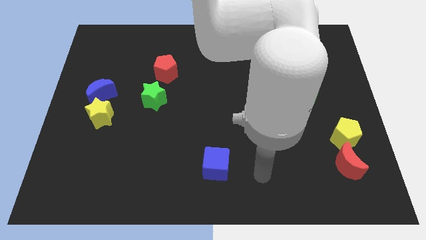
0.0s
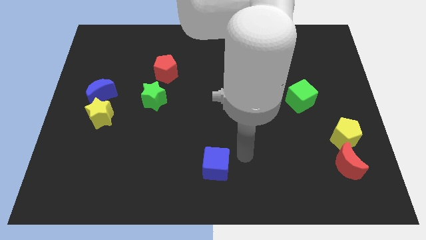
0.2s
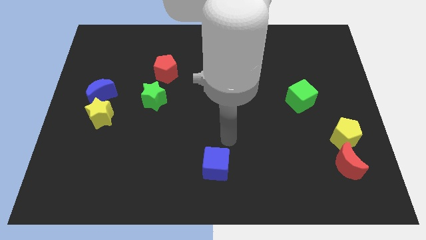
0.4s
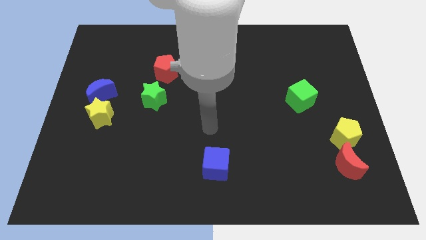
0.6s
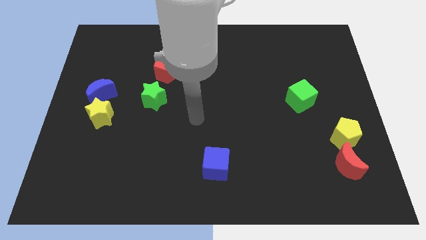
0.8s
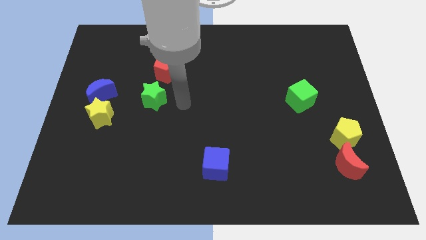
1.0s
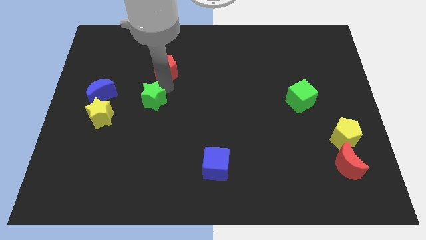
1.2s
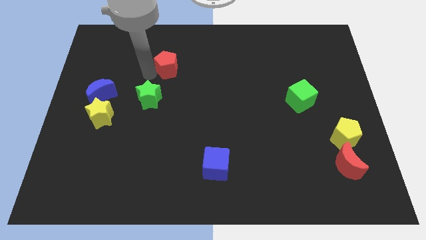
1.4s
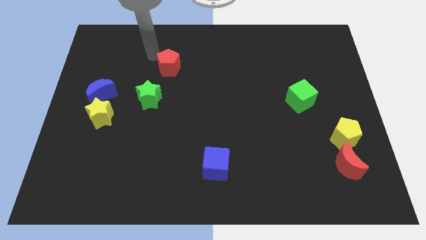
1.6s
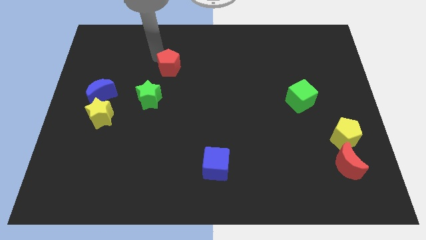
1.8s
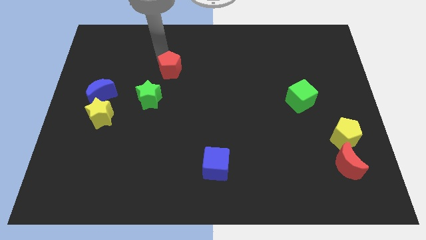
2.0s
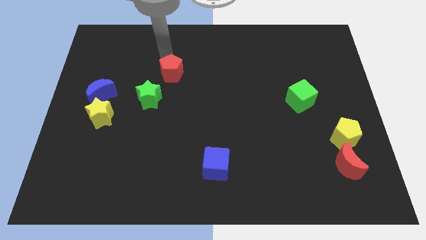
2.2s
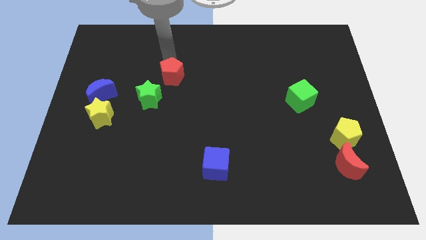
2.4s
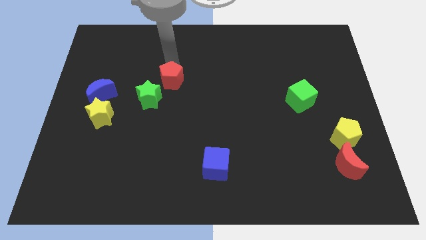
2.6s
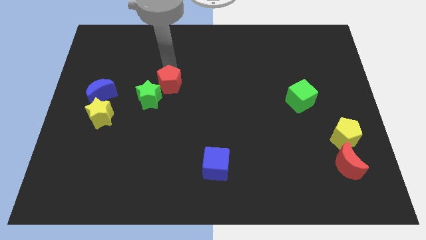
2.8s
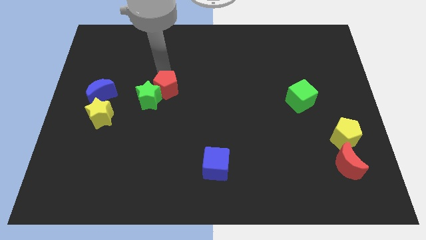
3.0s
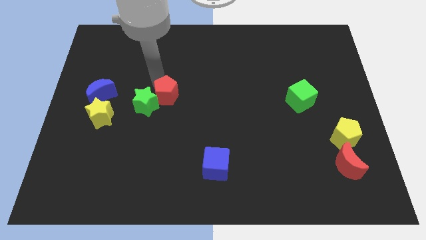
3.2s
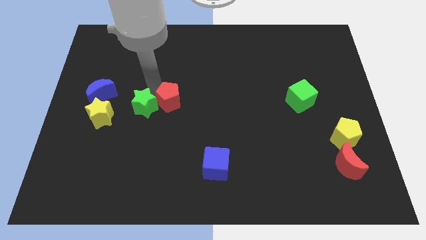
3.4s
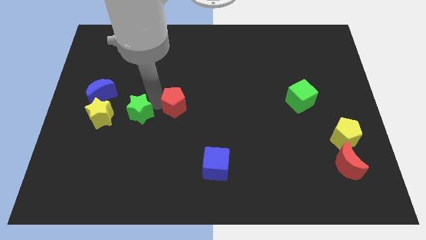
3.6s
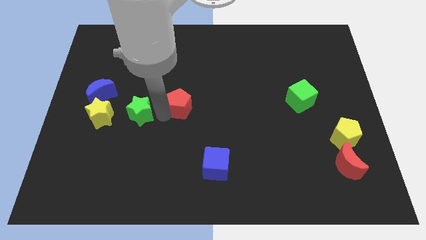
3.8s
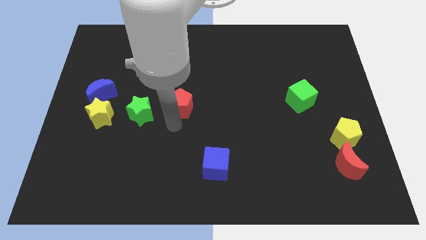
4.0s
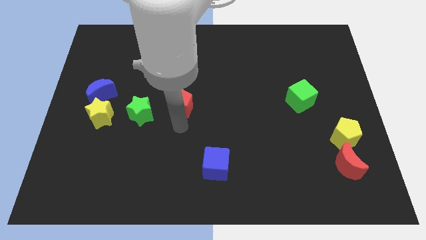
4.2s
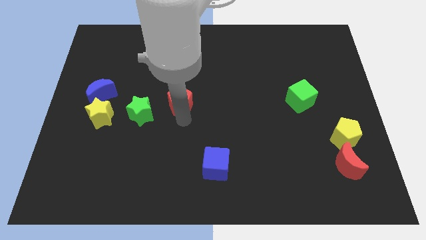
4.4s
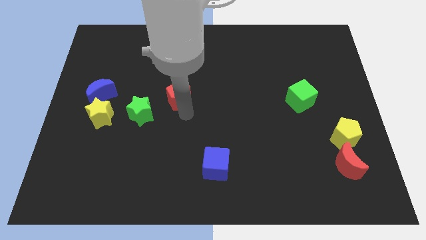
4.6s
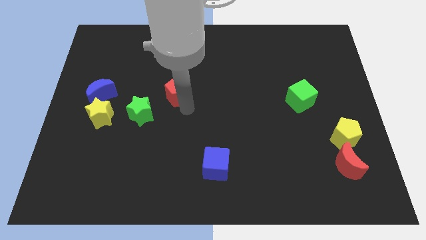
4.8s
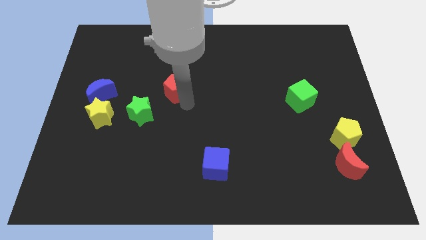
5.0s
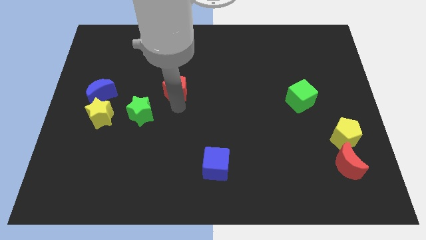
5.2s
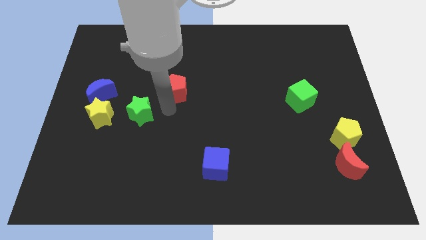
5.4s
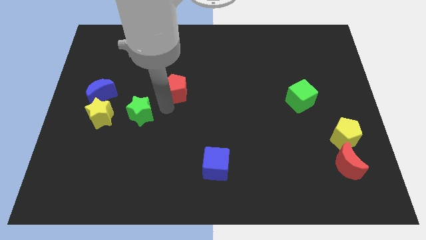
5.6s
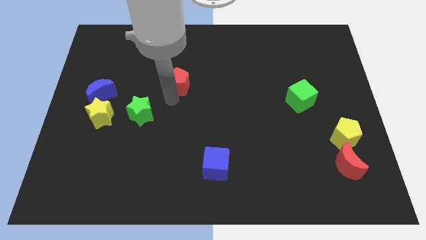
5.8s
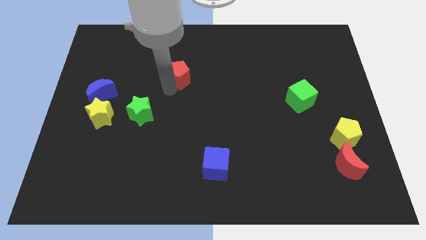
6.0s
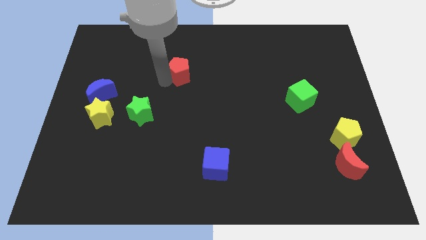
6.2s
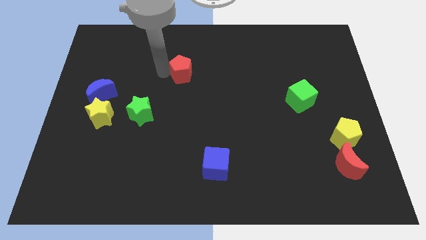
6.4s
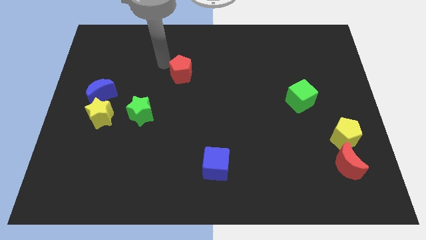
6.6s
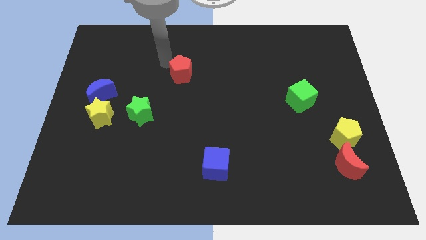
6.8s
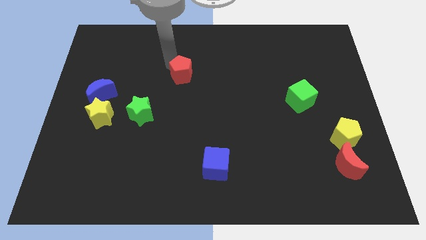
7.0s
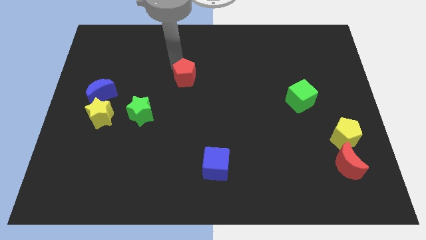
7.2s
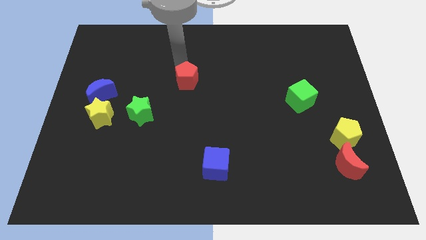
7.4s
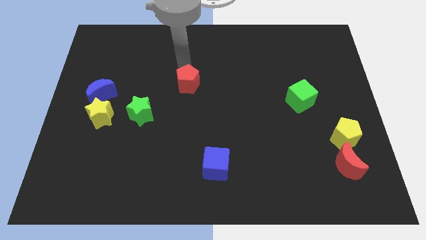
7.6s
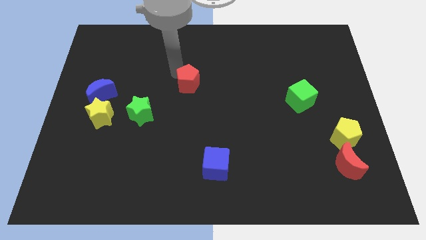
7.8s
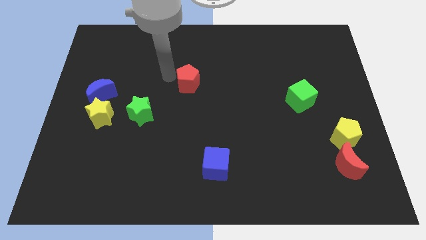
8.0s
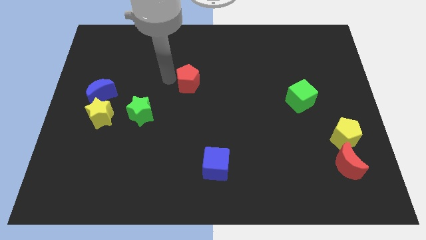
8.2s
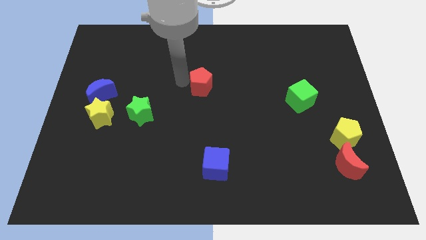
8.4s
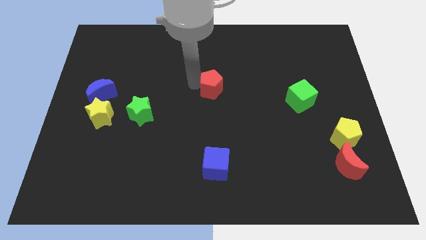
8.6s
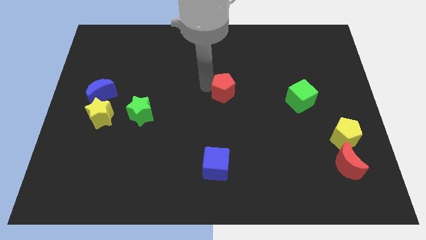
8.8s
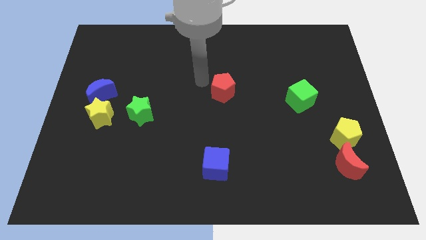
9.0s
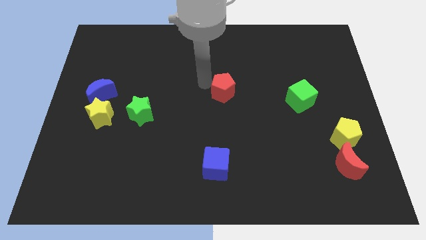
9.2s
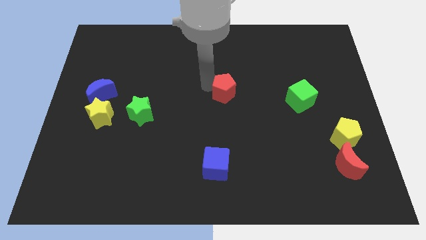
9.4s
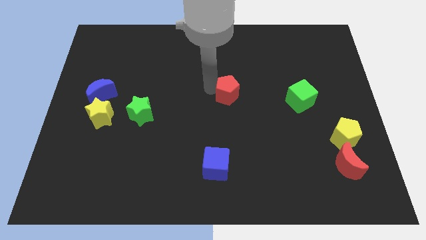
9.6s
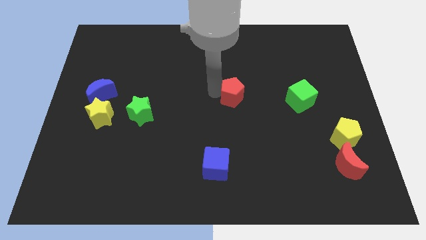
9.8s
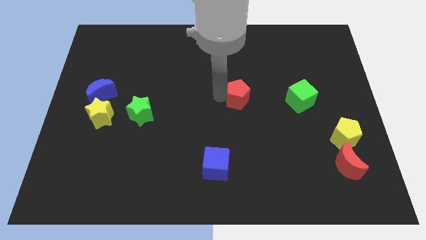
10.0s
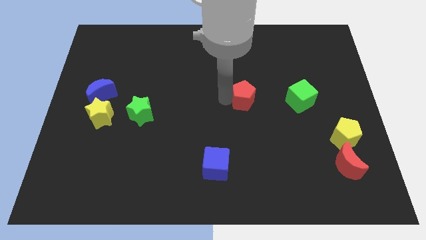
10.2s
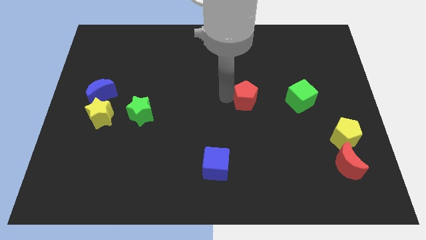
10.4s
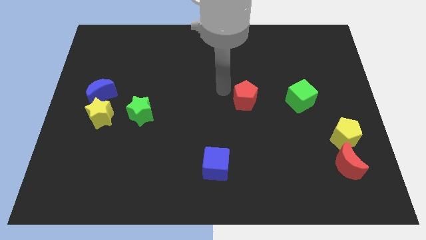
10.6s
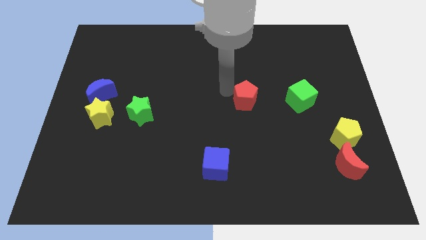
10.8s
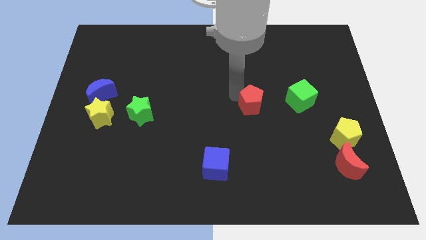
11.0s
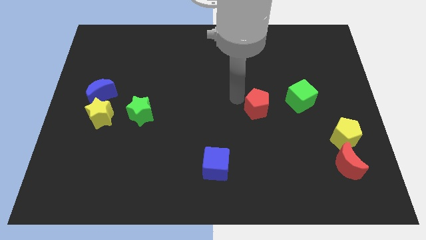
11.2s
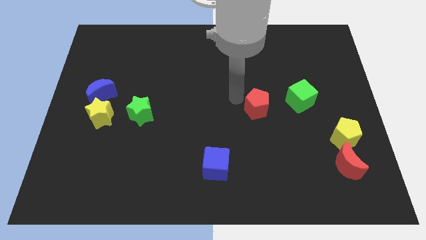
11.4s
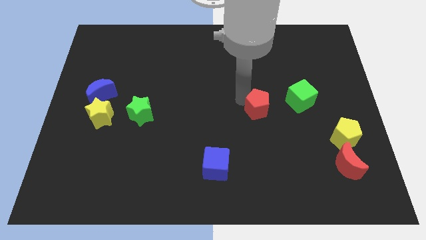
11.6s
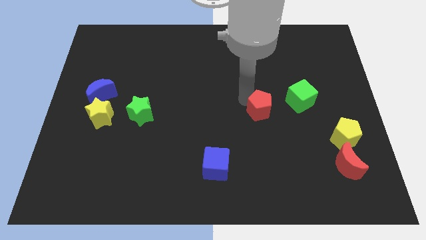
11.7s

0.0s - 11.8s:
push the red pentagon to the bottom left side of the green cube

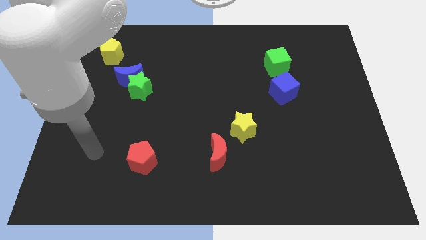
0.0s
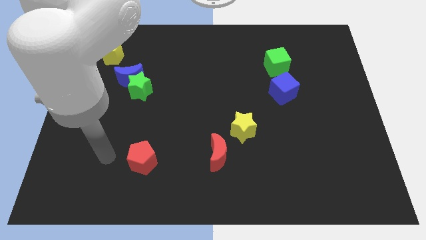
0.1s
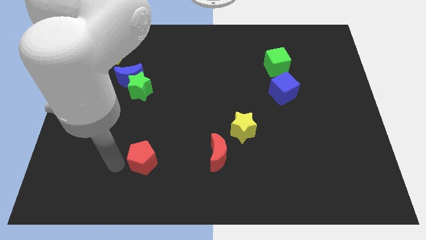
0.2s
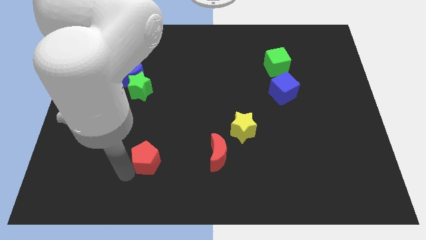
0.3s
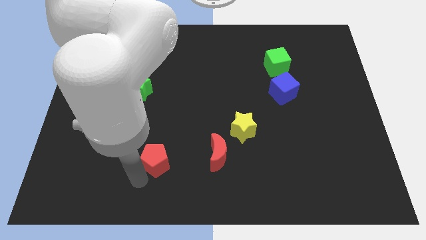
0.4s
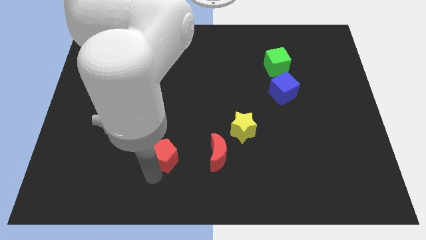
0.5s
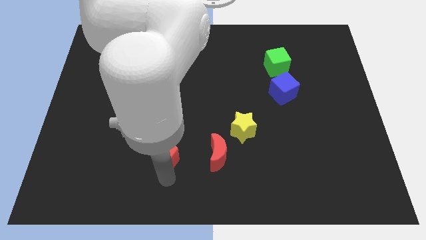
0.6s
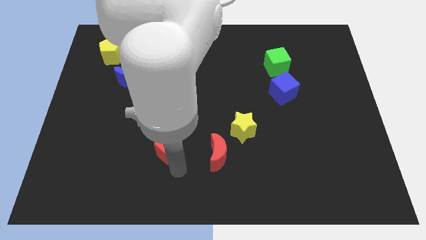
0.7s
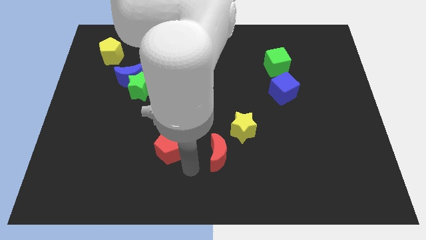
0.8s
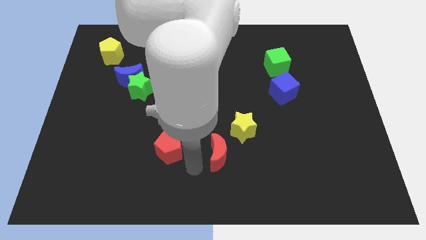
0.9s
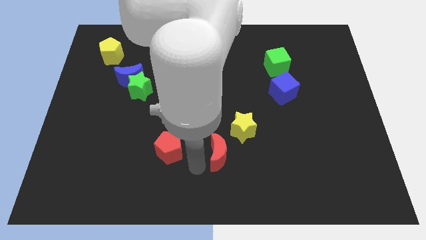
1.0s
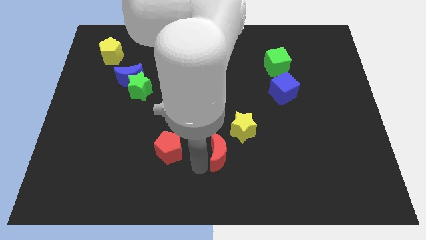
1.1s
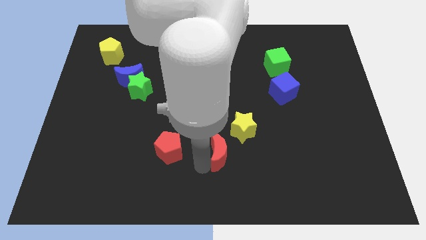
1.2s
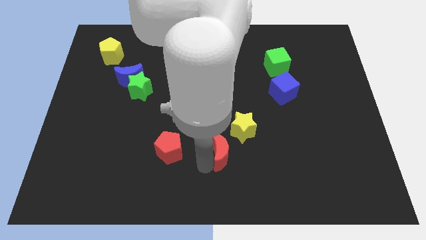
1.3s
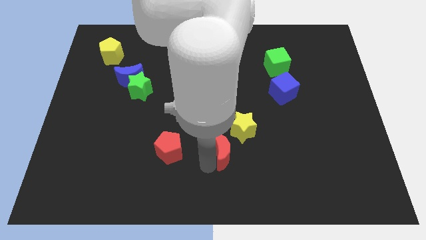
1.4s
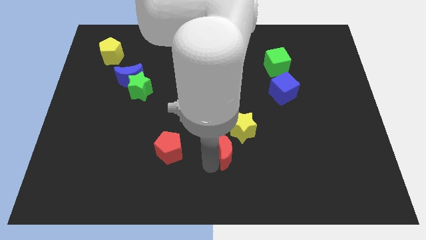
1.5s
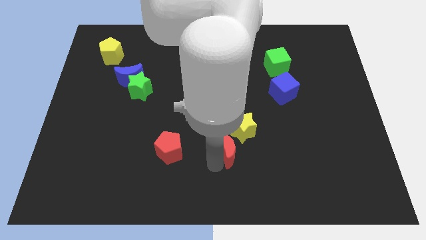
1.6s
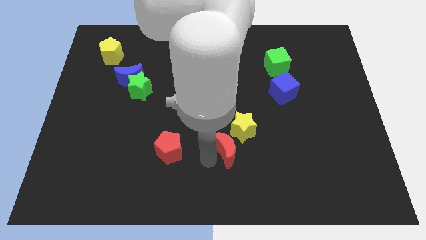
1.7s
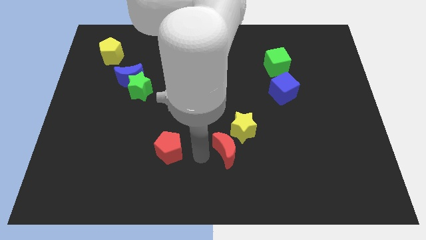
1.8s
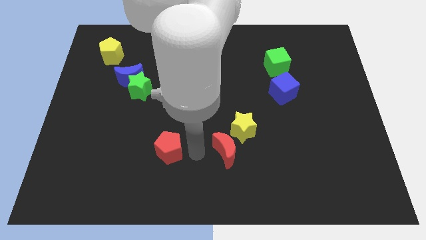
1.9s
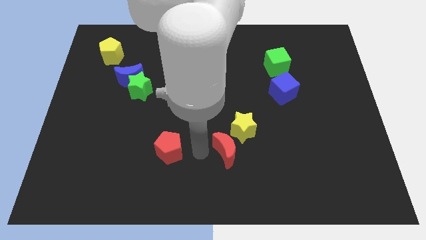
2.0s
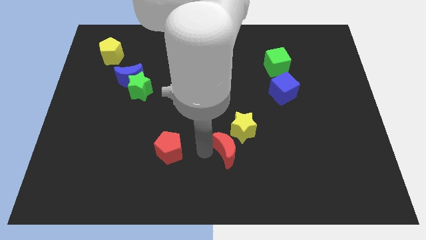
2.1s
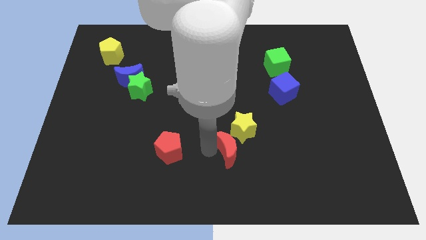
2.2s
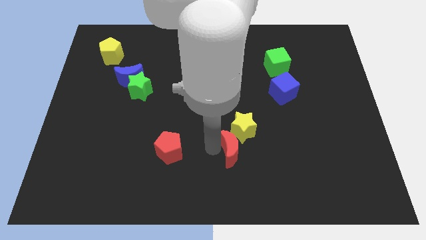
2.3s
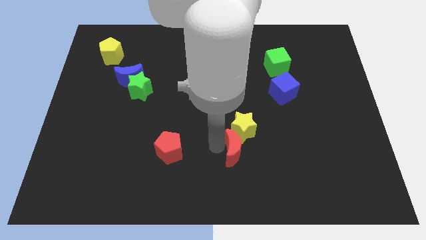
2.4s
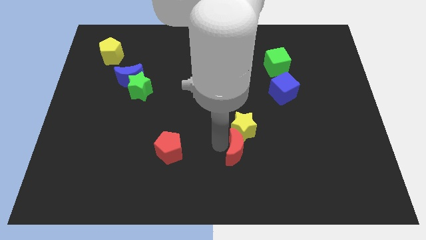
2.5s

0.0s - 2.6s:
push the red moon diagonally down and to the right of the yellow star
